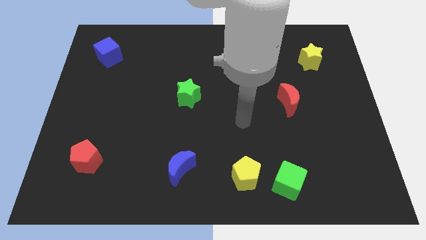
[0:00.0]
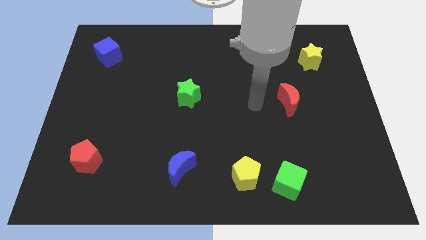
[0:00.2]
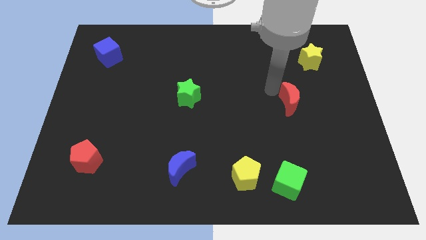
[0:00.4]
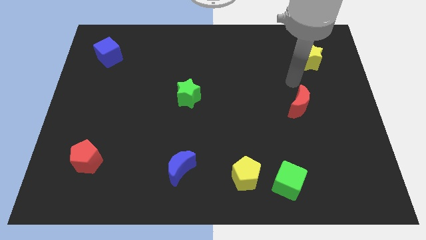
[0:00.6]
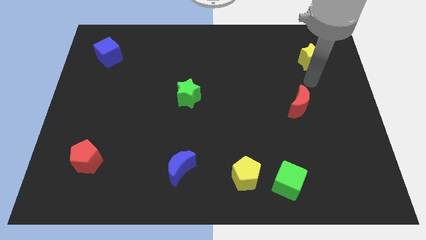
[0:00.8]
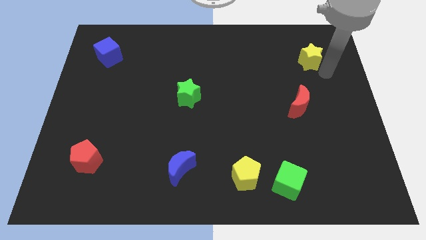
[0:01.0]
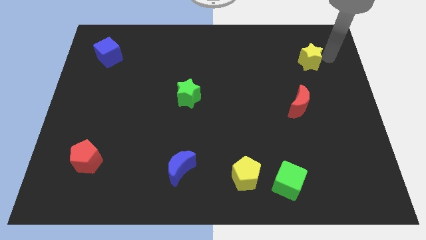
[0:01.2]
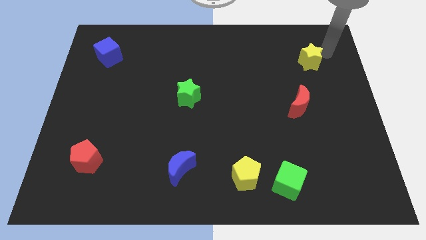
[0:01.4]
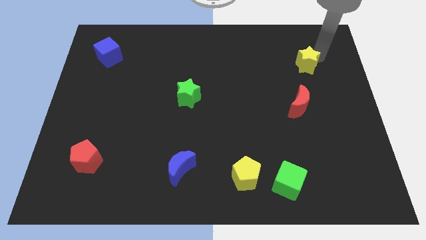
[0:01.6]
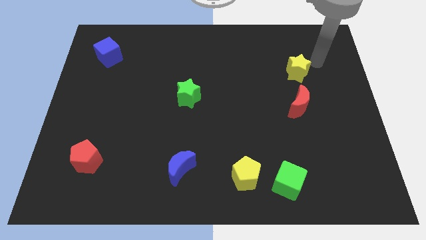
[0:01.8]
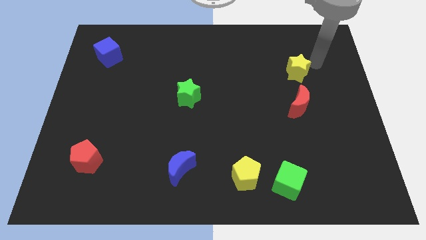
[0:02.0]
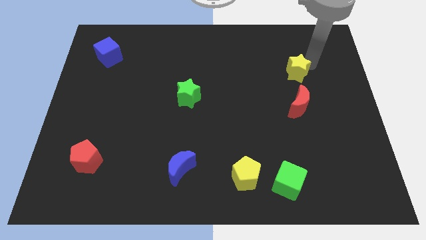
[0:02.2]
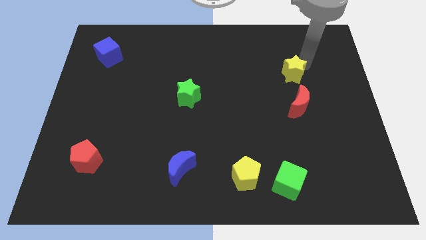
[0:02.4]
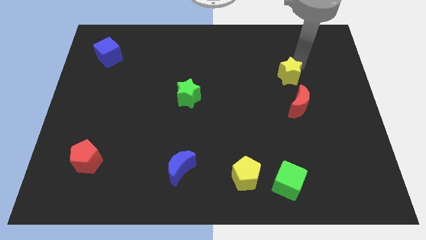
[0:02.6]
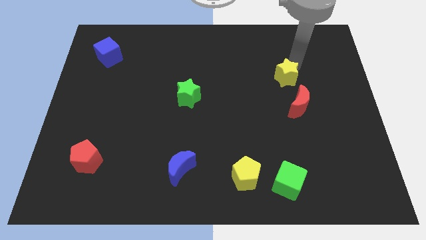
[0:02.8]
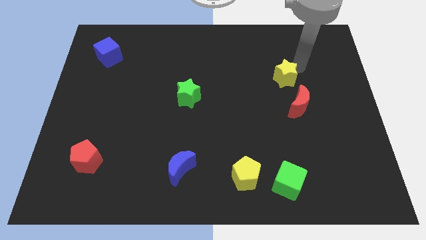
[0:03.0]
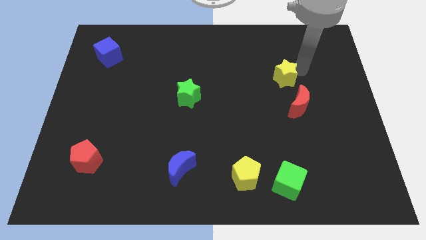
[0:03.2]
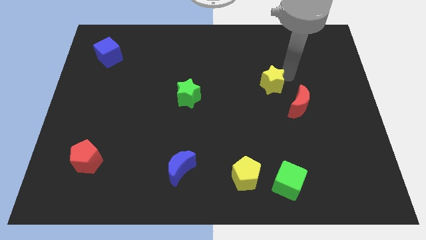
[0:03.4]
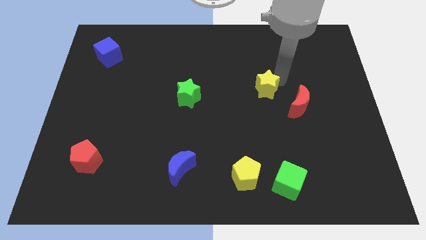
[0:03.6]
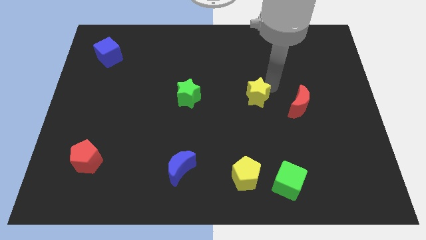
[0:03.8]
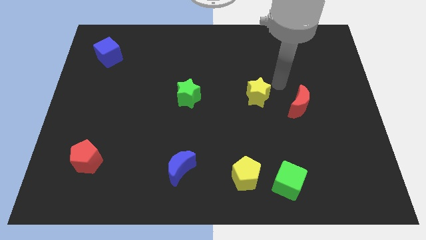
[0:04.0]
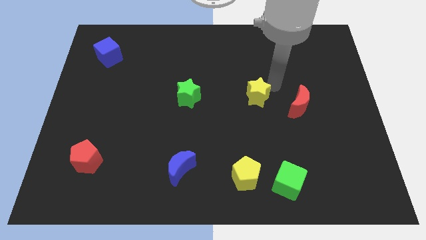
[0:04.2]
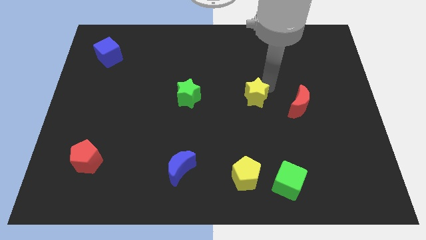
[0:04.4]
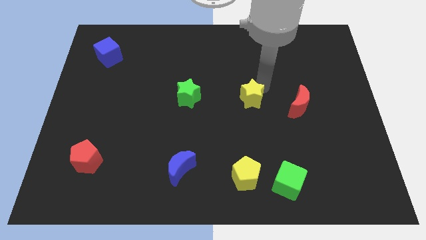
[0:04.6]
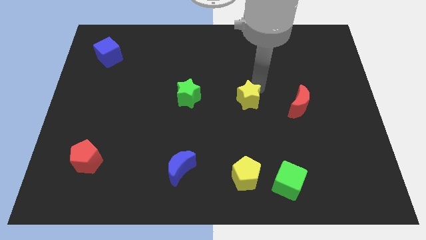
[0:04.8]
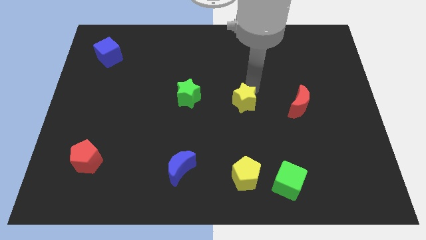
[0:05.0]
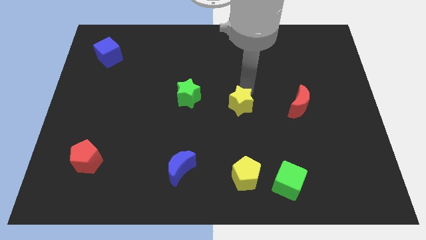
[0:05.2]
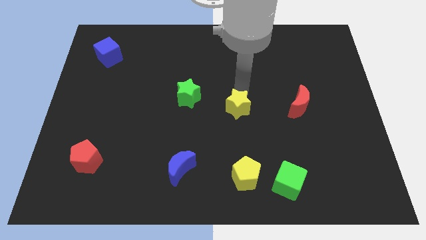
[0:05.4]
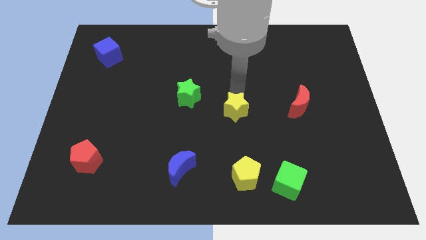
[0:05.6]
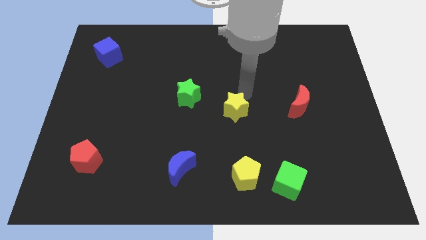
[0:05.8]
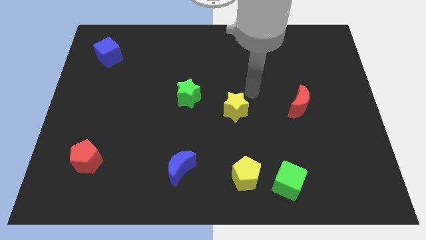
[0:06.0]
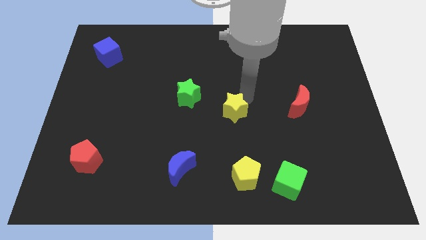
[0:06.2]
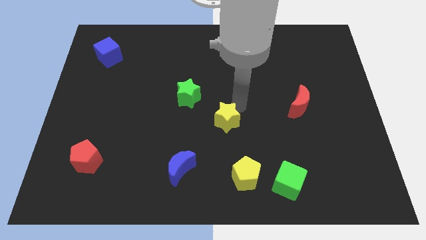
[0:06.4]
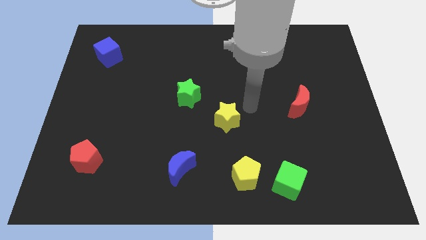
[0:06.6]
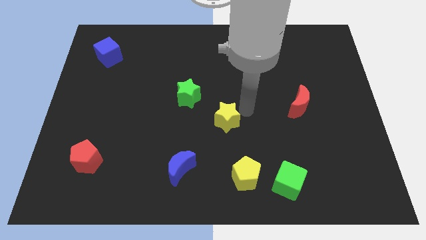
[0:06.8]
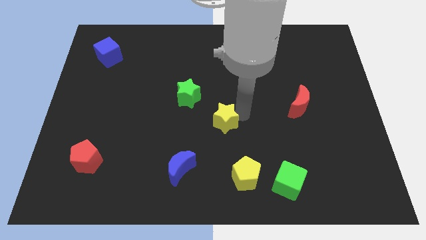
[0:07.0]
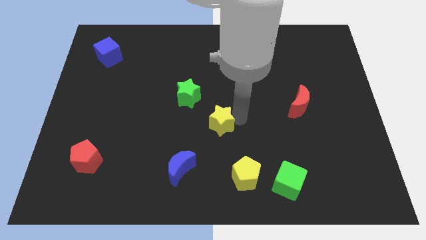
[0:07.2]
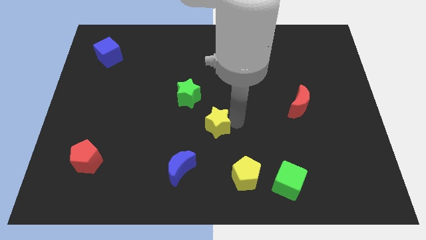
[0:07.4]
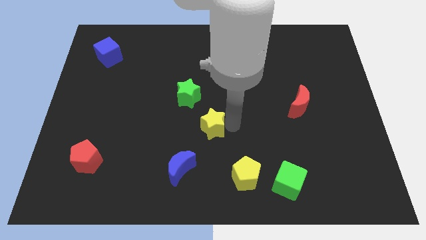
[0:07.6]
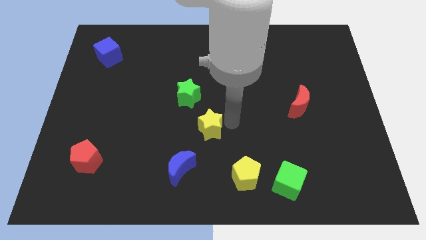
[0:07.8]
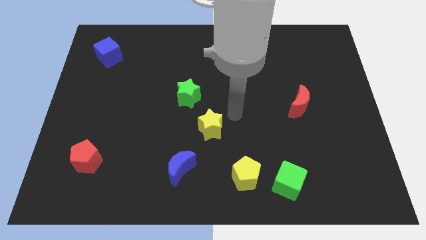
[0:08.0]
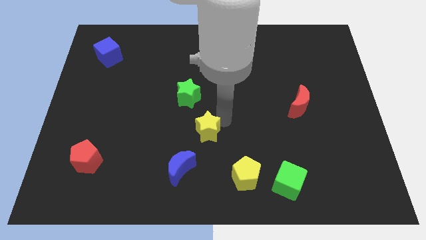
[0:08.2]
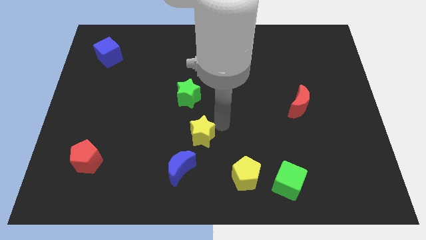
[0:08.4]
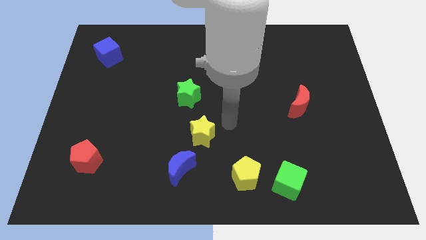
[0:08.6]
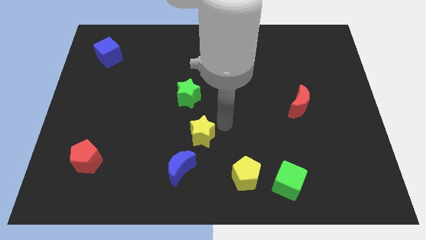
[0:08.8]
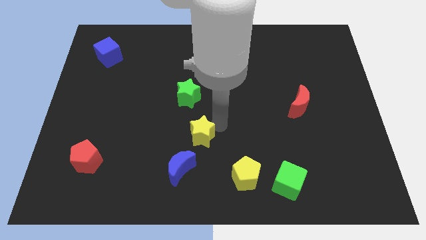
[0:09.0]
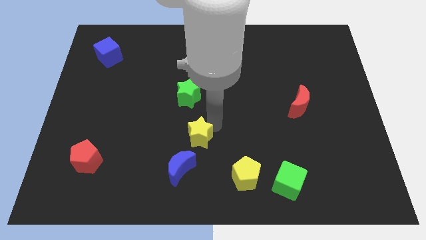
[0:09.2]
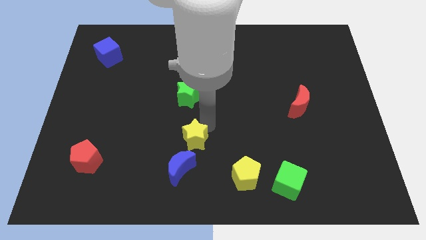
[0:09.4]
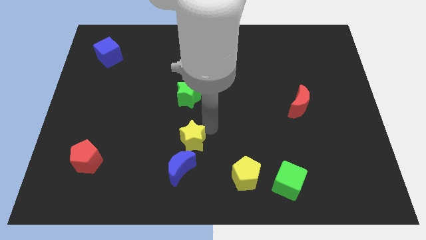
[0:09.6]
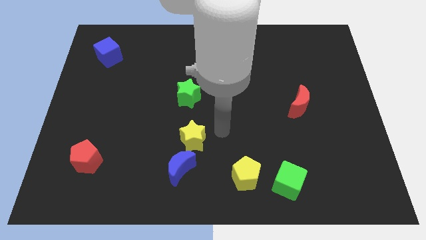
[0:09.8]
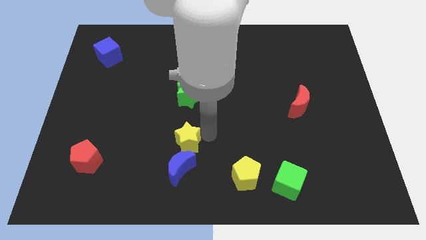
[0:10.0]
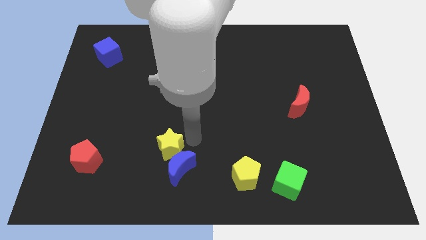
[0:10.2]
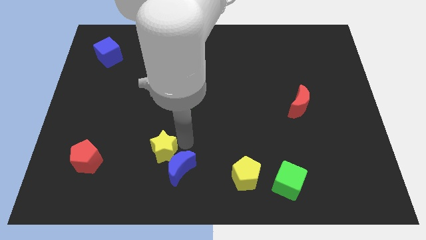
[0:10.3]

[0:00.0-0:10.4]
move the yellow star left of the blue moon

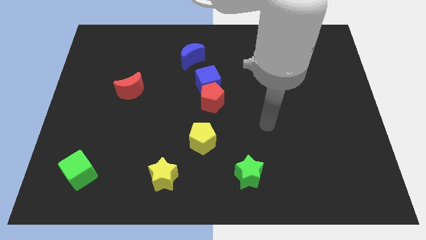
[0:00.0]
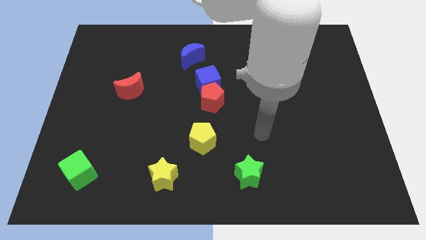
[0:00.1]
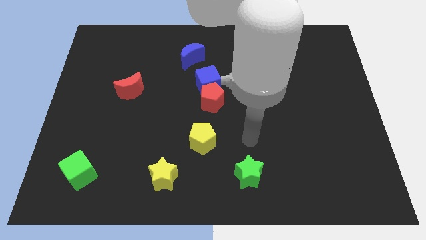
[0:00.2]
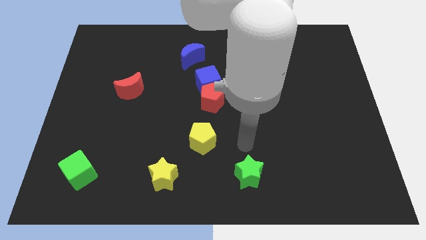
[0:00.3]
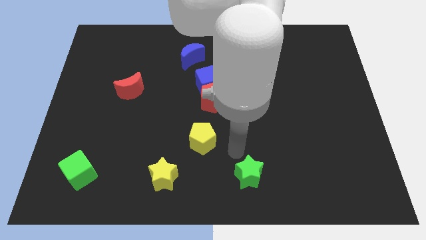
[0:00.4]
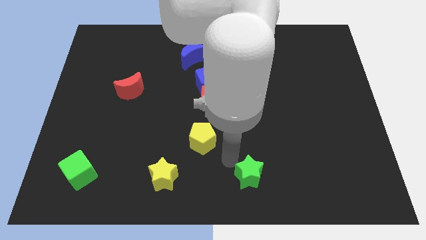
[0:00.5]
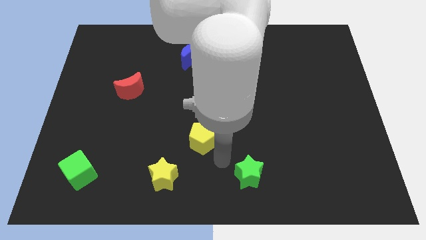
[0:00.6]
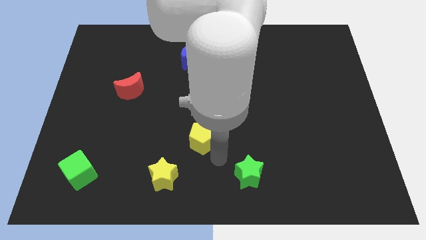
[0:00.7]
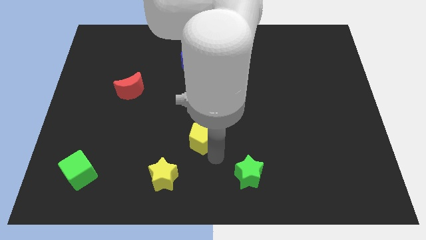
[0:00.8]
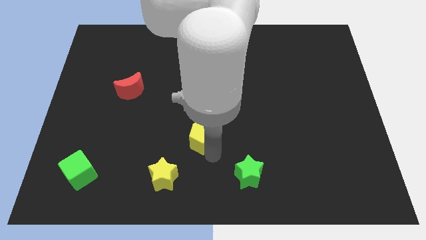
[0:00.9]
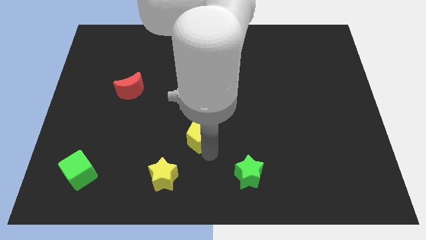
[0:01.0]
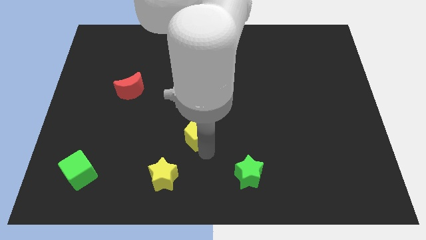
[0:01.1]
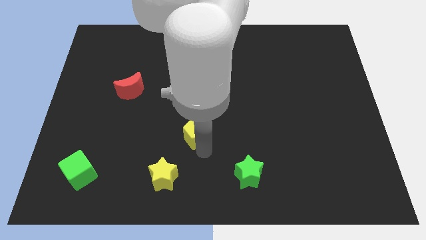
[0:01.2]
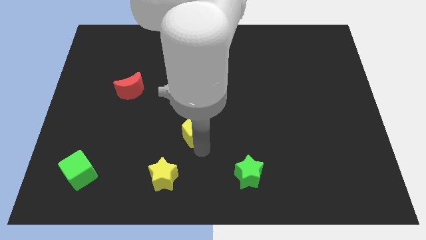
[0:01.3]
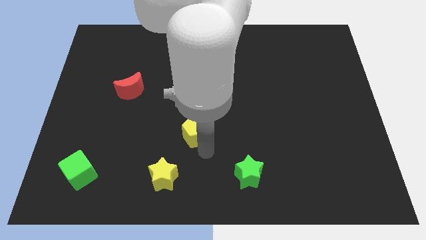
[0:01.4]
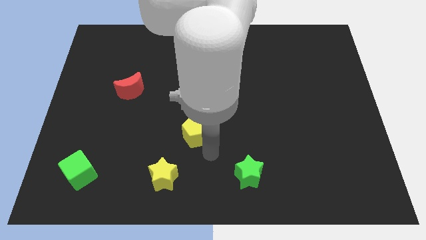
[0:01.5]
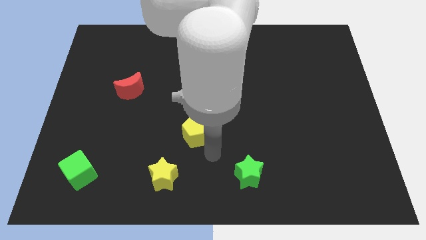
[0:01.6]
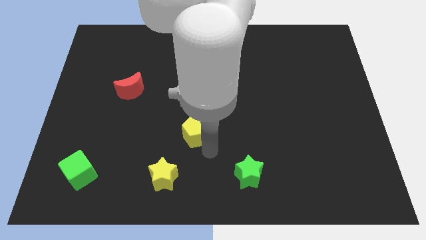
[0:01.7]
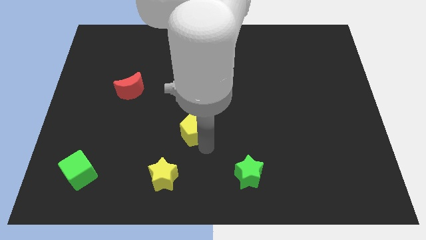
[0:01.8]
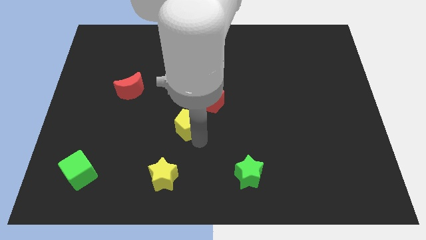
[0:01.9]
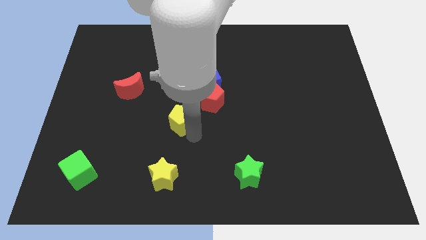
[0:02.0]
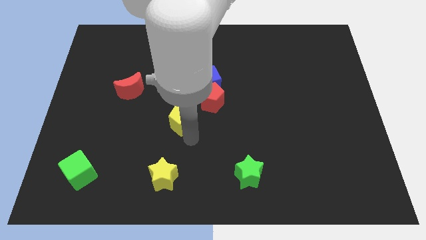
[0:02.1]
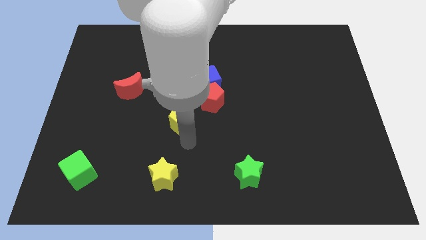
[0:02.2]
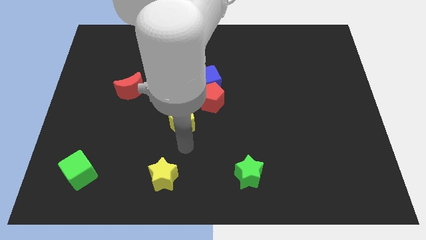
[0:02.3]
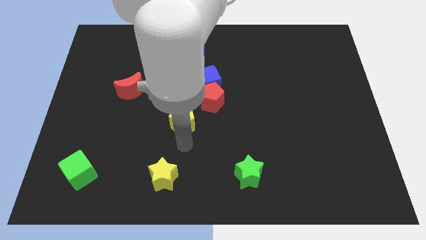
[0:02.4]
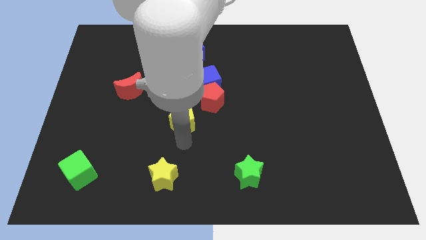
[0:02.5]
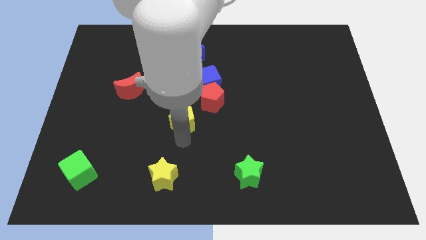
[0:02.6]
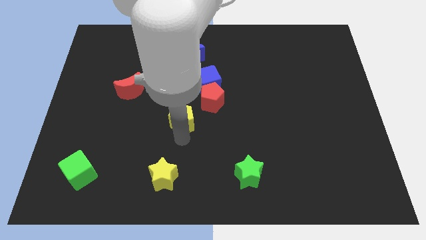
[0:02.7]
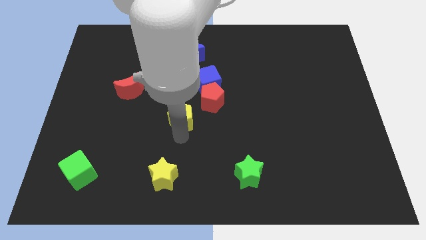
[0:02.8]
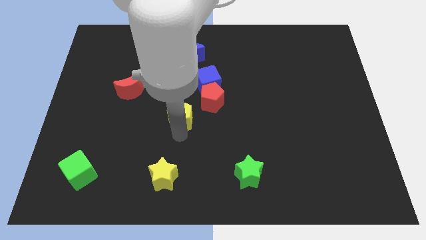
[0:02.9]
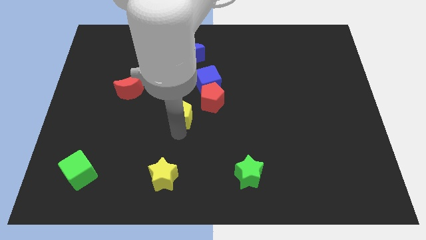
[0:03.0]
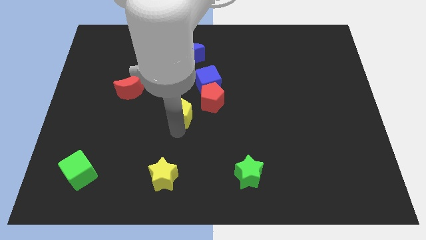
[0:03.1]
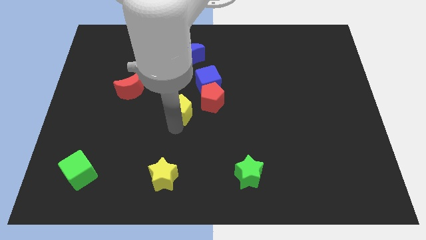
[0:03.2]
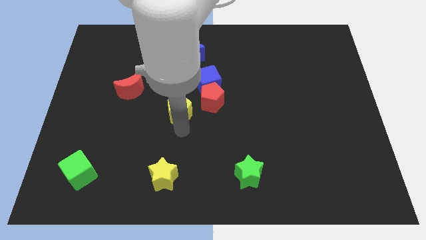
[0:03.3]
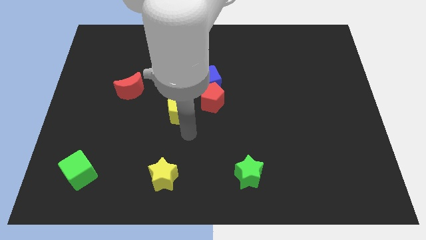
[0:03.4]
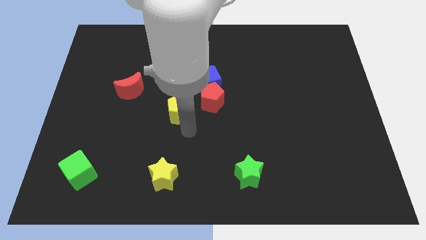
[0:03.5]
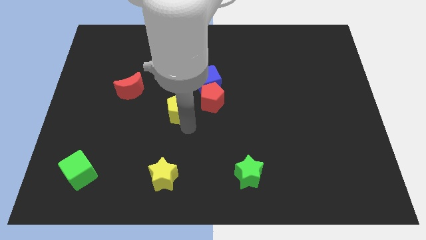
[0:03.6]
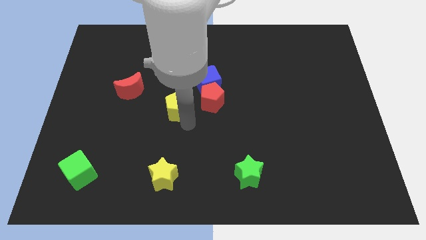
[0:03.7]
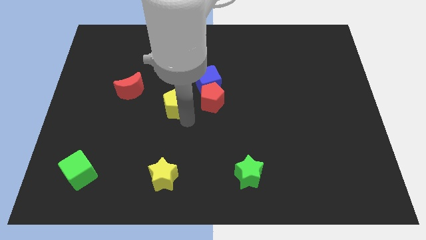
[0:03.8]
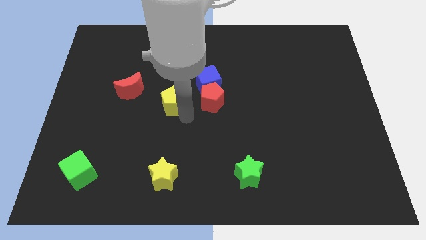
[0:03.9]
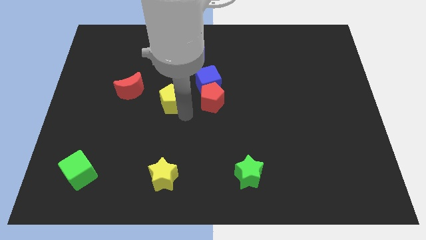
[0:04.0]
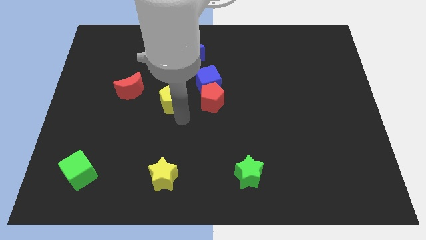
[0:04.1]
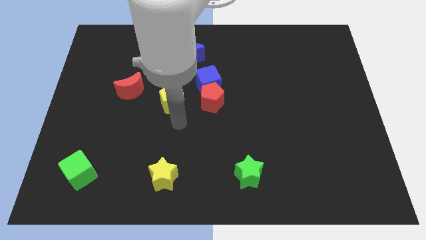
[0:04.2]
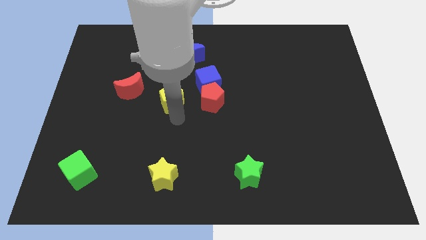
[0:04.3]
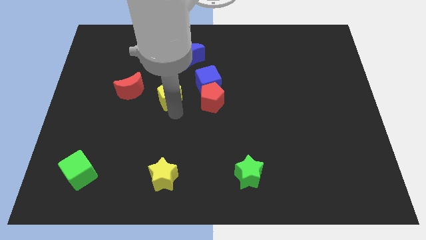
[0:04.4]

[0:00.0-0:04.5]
put the yellow pentagon just left of the blue cube
